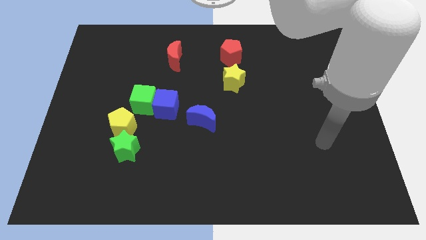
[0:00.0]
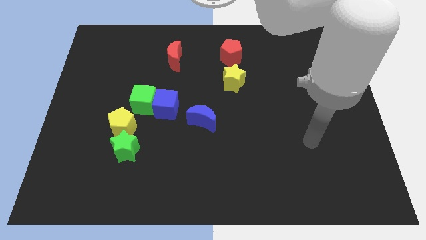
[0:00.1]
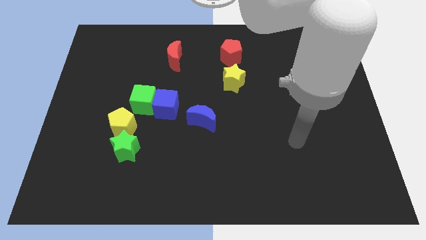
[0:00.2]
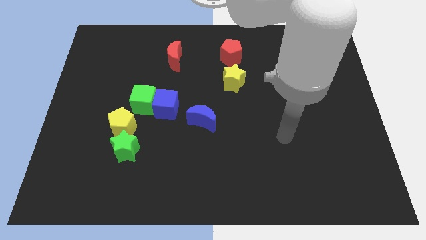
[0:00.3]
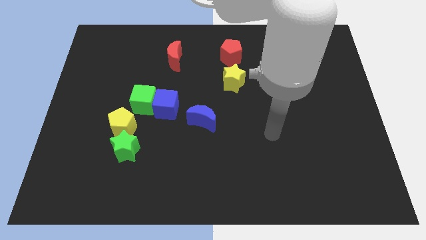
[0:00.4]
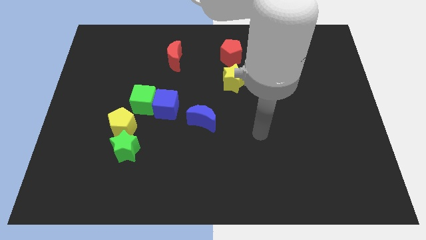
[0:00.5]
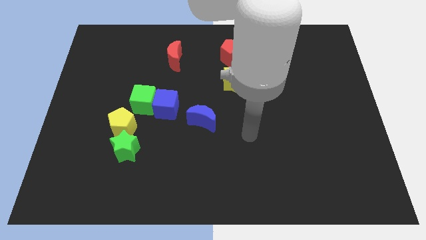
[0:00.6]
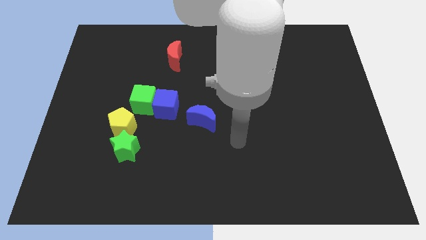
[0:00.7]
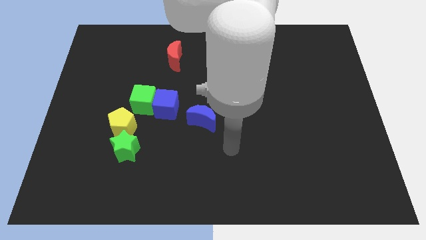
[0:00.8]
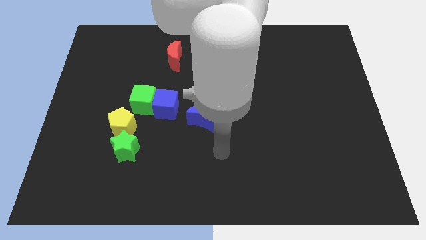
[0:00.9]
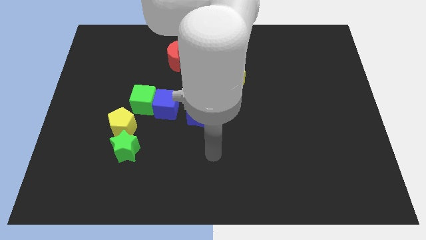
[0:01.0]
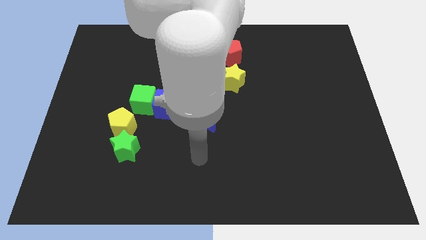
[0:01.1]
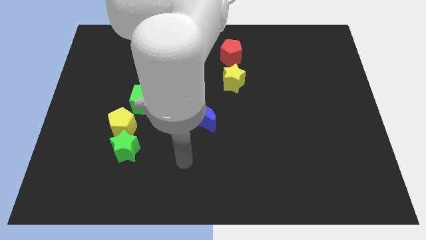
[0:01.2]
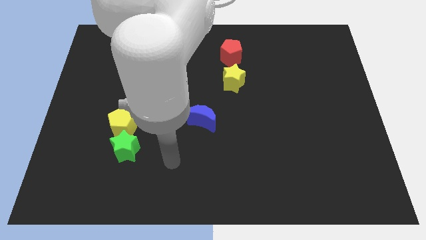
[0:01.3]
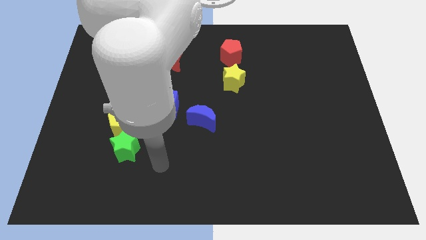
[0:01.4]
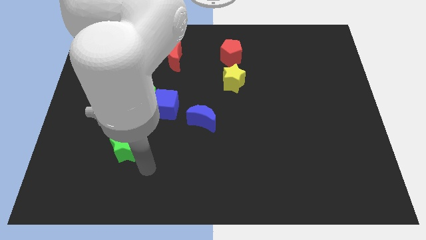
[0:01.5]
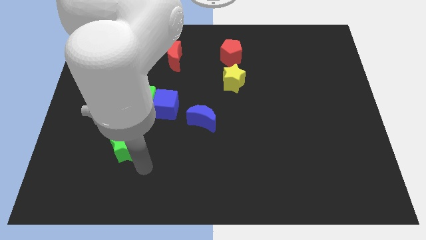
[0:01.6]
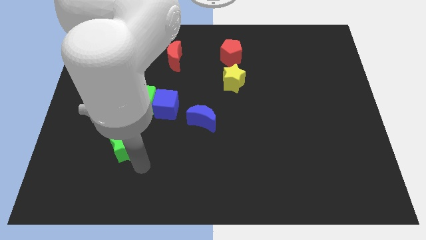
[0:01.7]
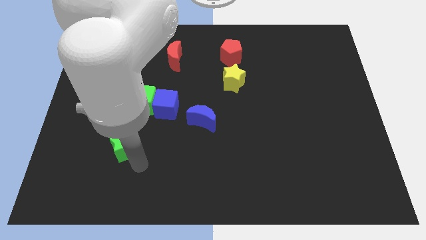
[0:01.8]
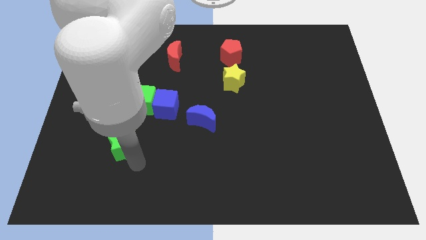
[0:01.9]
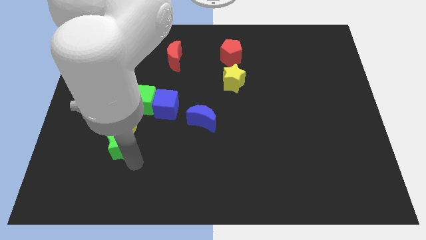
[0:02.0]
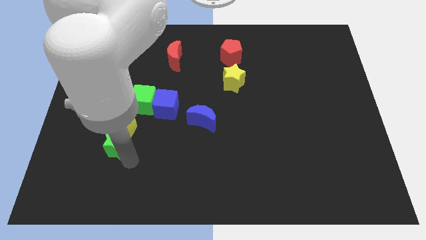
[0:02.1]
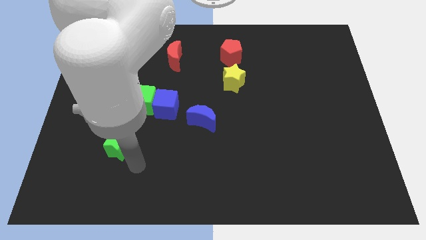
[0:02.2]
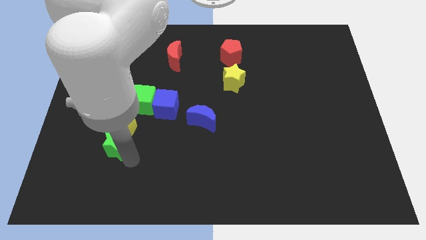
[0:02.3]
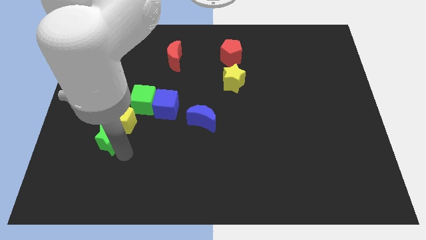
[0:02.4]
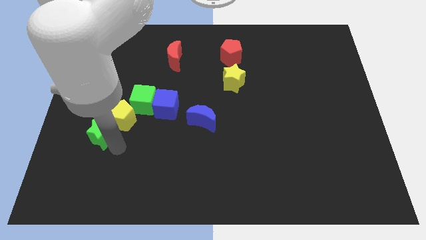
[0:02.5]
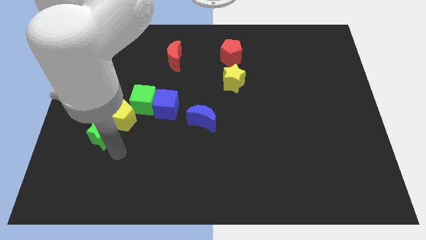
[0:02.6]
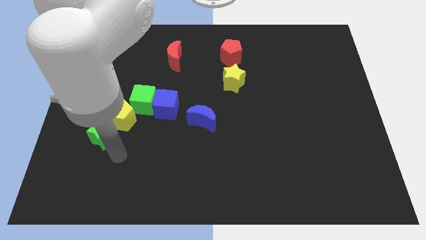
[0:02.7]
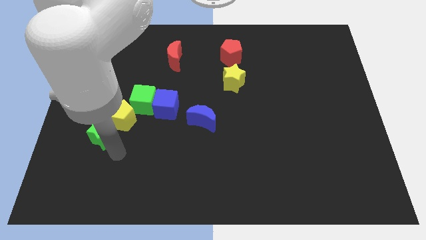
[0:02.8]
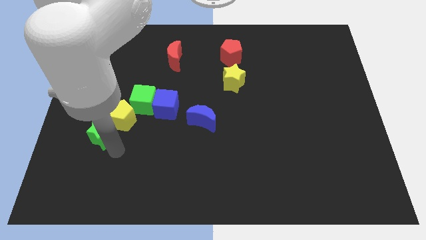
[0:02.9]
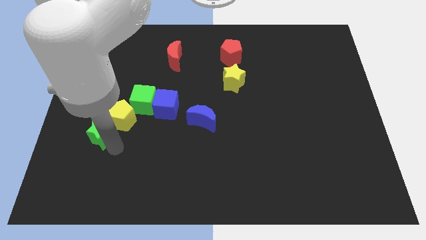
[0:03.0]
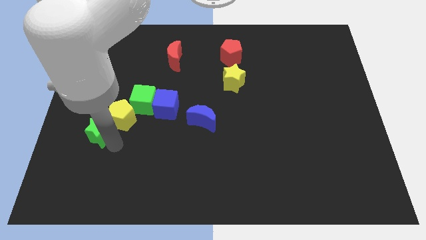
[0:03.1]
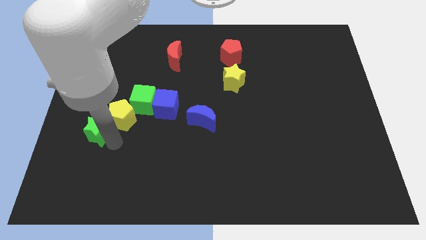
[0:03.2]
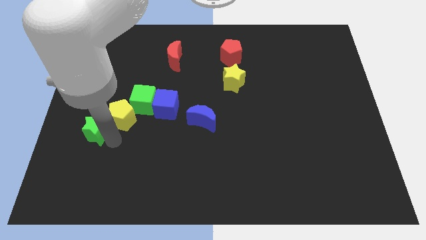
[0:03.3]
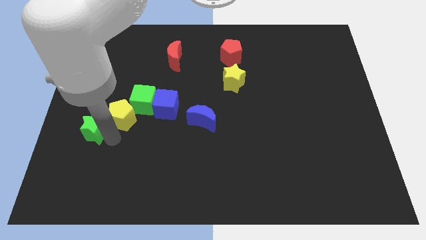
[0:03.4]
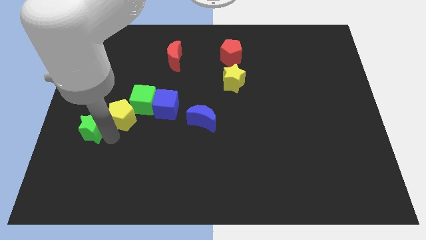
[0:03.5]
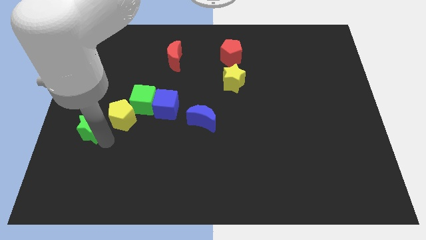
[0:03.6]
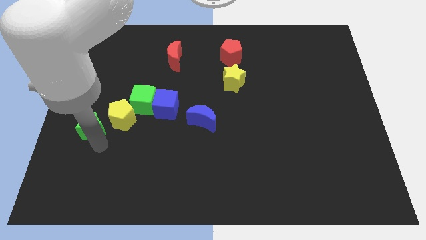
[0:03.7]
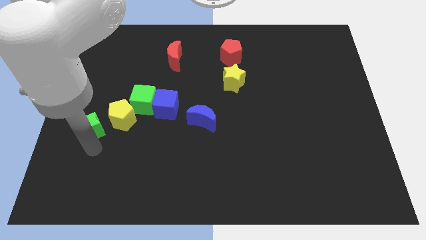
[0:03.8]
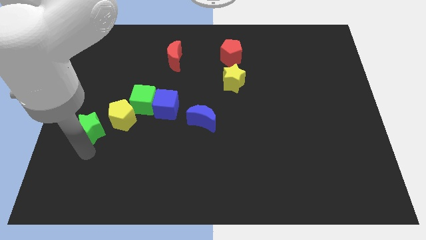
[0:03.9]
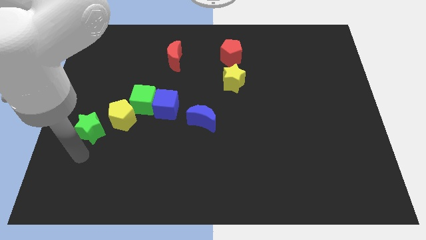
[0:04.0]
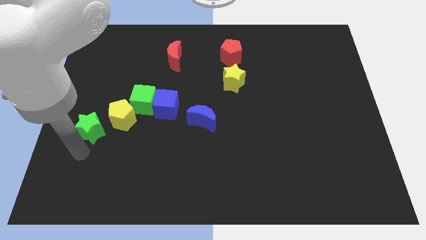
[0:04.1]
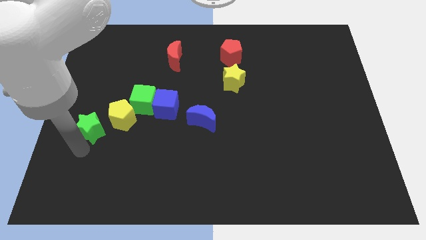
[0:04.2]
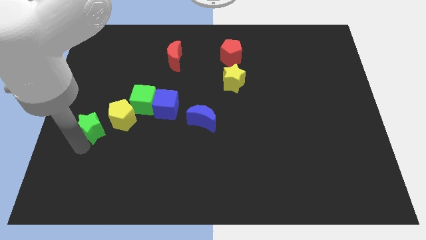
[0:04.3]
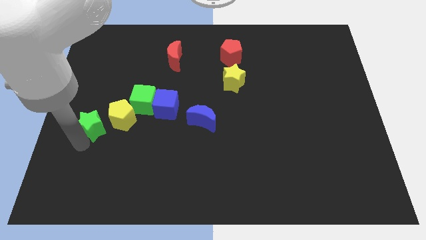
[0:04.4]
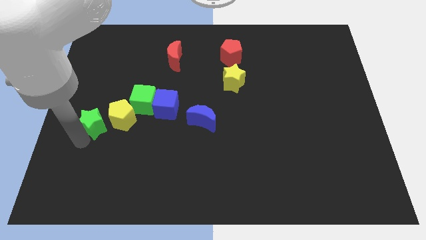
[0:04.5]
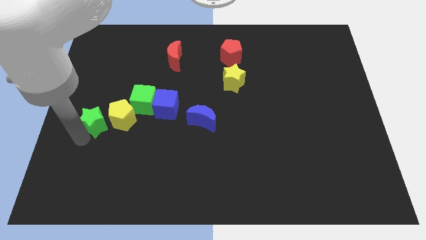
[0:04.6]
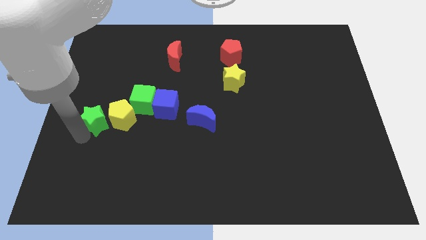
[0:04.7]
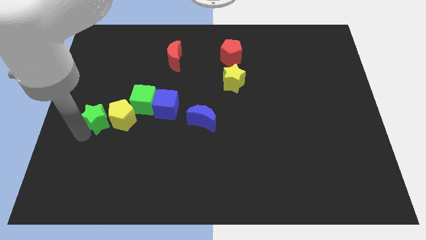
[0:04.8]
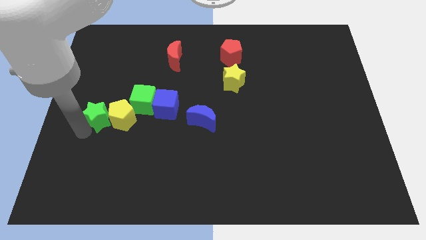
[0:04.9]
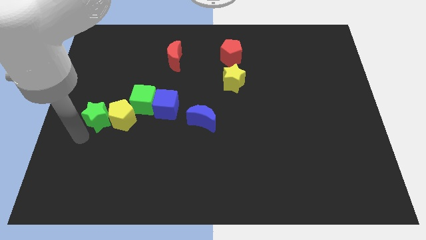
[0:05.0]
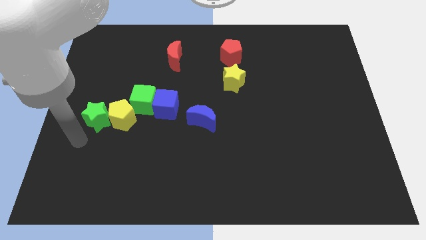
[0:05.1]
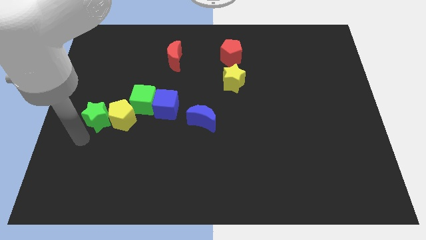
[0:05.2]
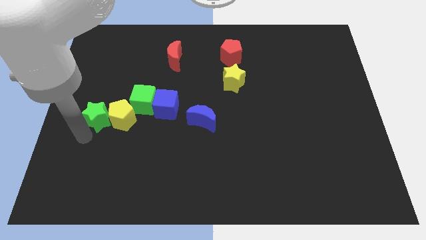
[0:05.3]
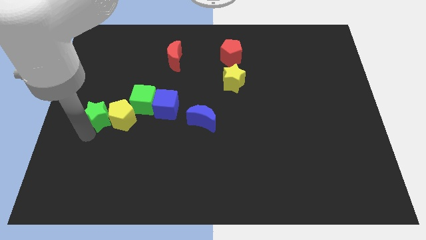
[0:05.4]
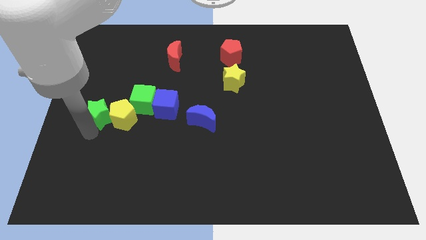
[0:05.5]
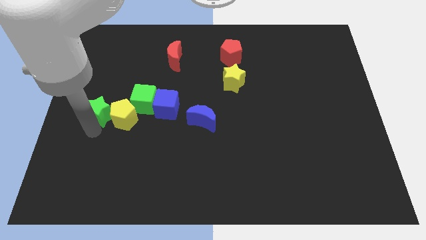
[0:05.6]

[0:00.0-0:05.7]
push the green star somewhat upwards

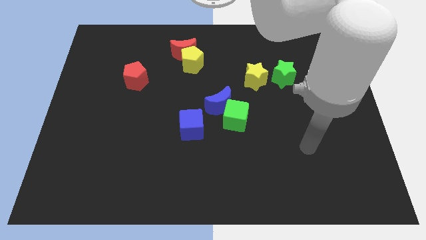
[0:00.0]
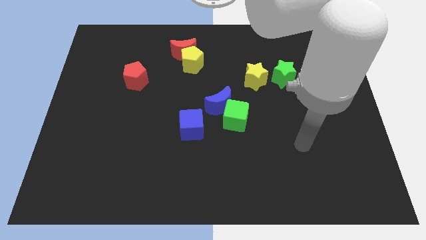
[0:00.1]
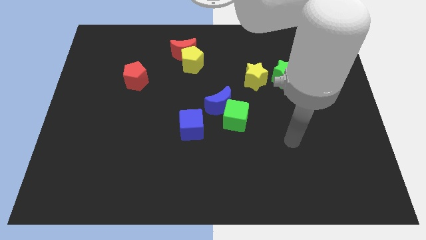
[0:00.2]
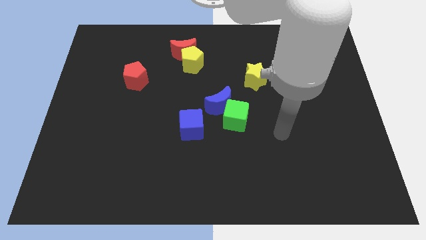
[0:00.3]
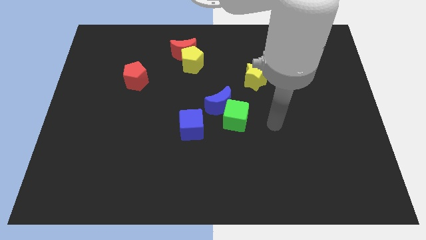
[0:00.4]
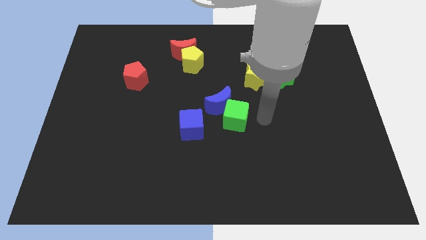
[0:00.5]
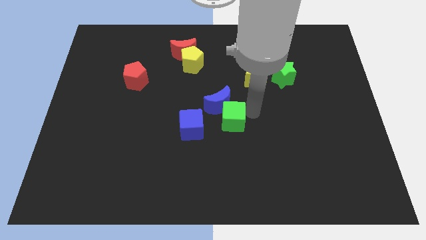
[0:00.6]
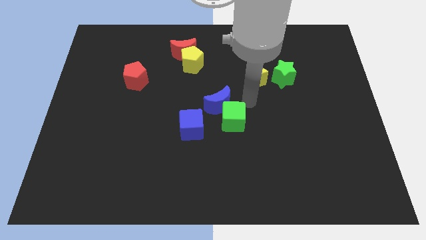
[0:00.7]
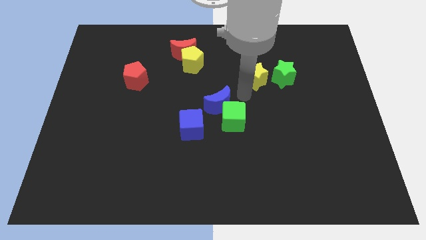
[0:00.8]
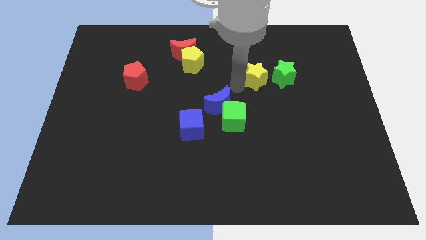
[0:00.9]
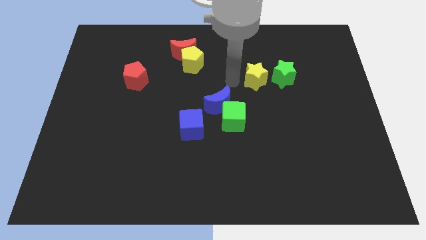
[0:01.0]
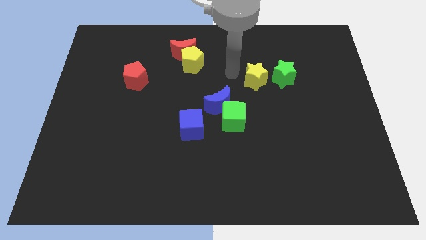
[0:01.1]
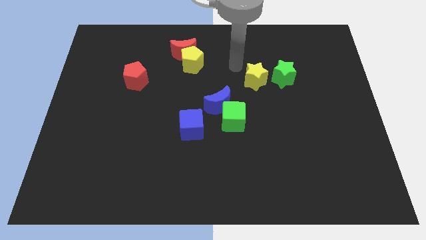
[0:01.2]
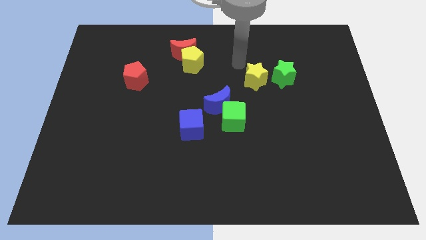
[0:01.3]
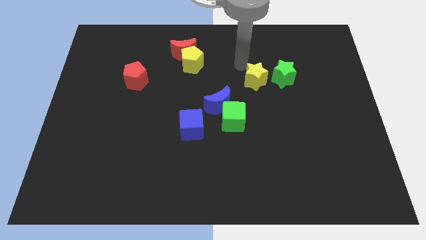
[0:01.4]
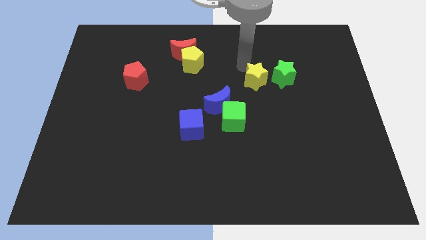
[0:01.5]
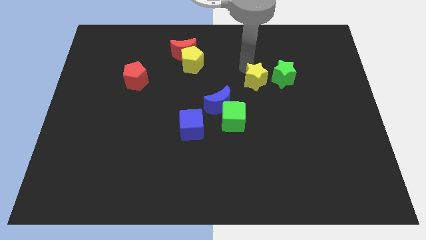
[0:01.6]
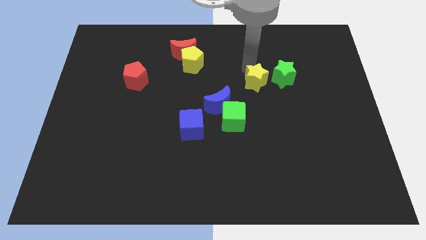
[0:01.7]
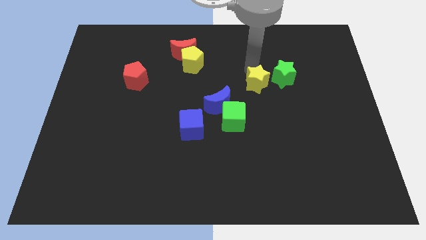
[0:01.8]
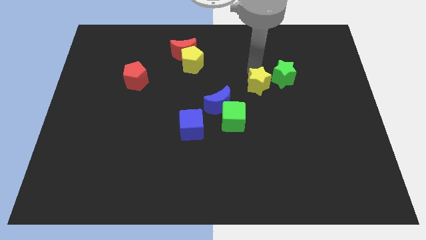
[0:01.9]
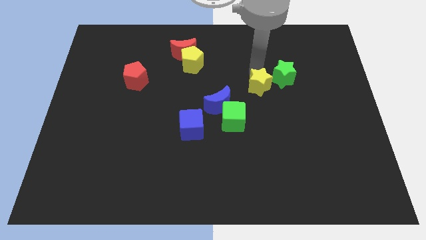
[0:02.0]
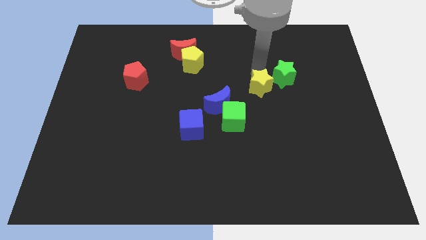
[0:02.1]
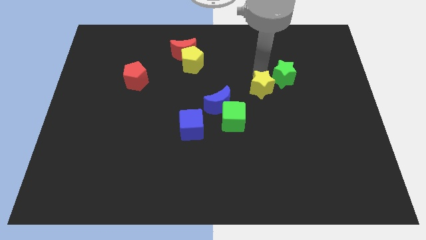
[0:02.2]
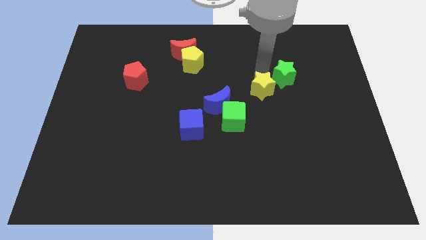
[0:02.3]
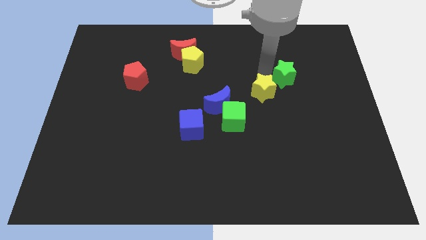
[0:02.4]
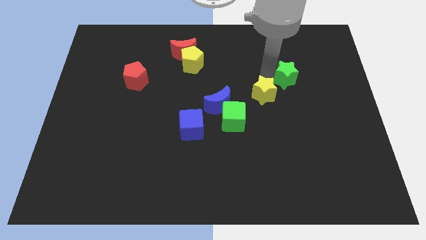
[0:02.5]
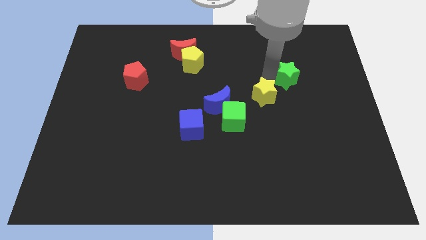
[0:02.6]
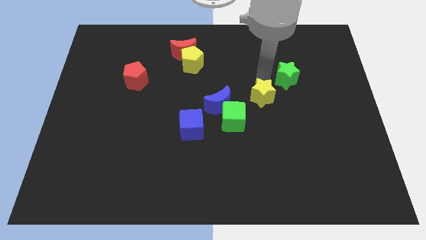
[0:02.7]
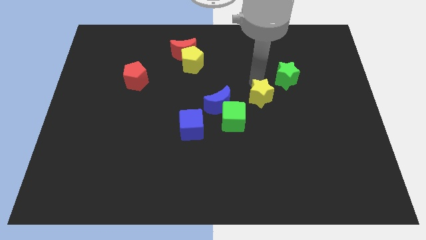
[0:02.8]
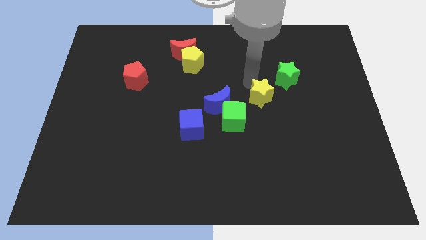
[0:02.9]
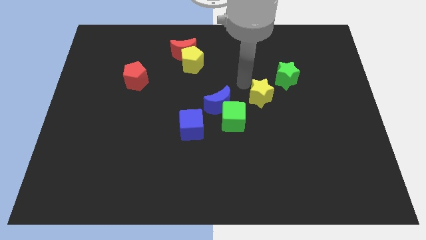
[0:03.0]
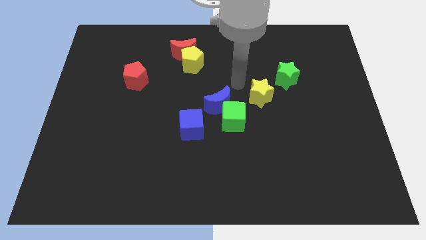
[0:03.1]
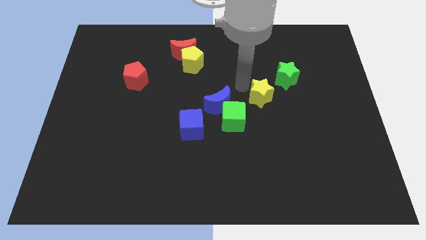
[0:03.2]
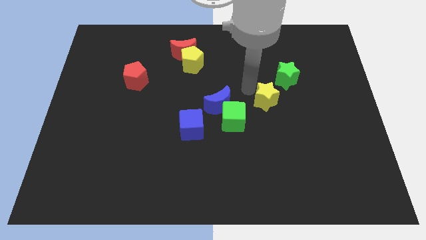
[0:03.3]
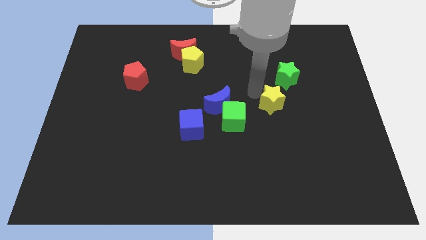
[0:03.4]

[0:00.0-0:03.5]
slide the yellow star diagonally downwards and to the right a little bit
